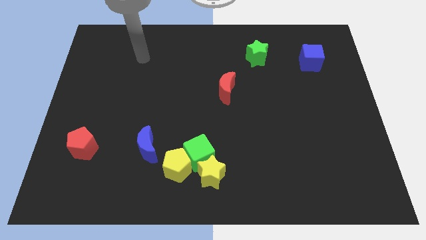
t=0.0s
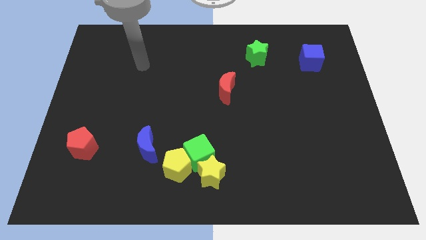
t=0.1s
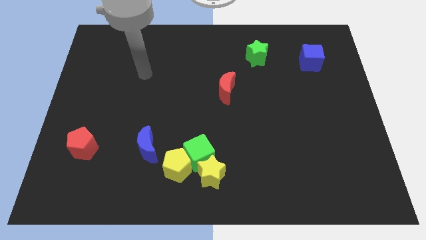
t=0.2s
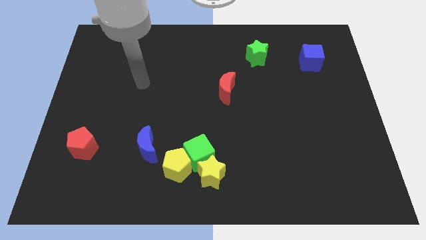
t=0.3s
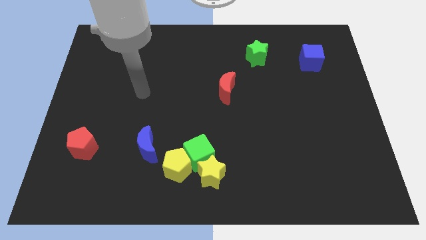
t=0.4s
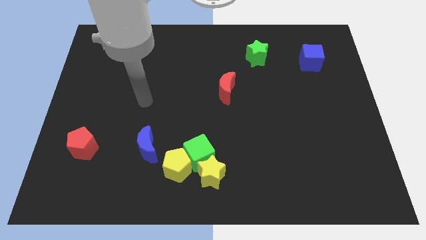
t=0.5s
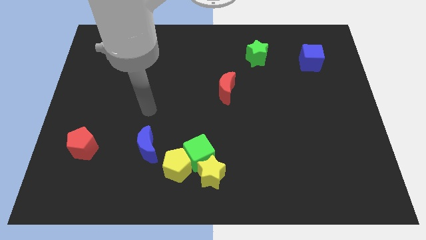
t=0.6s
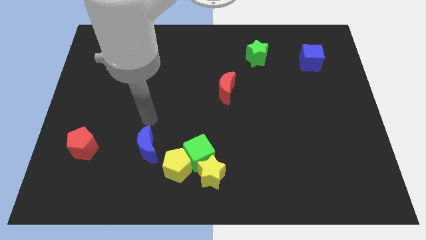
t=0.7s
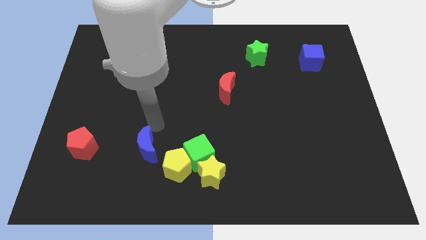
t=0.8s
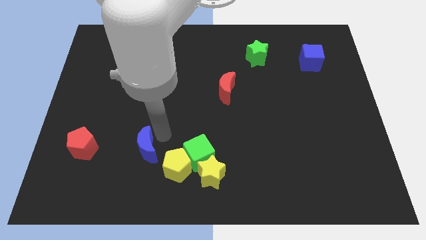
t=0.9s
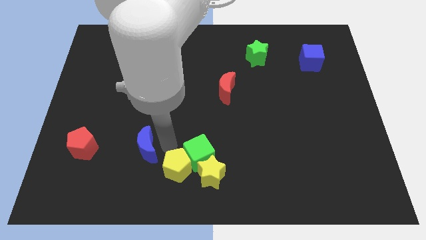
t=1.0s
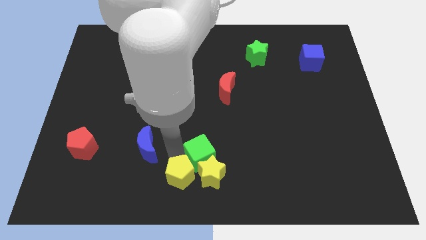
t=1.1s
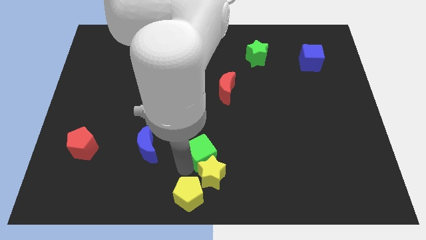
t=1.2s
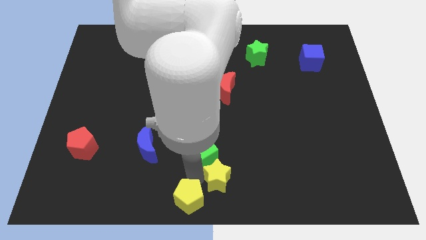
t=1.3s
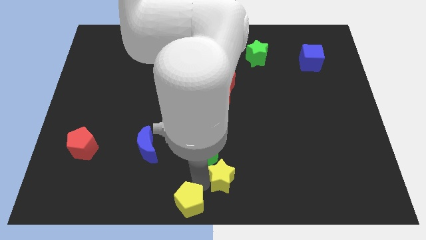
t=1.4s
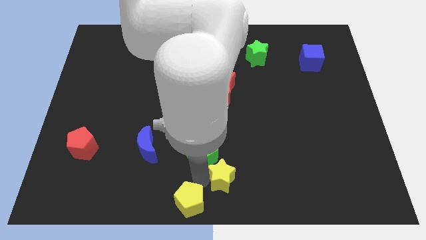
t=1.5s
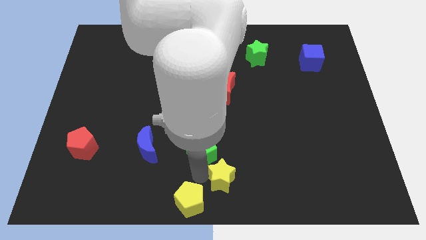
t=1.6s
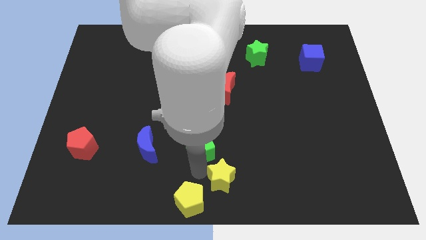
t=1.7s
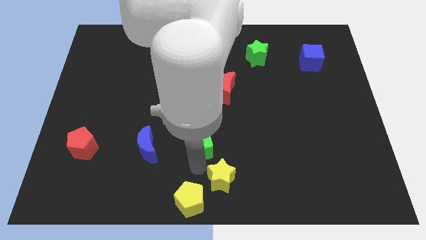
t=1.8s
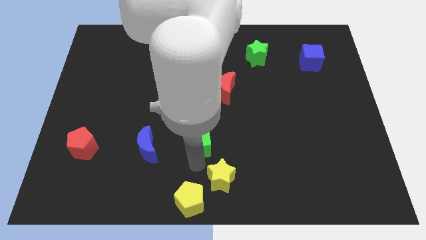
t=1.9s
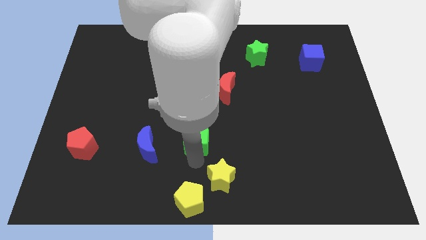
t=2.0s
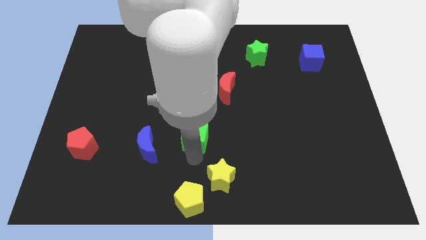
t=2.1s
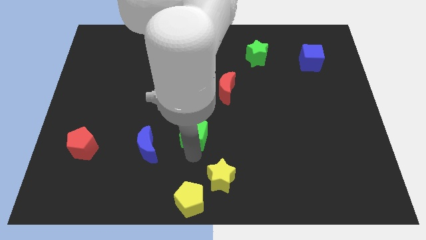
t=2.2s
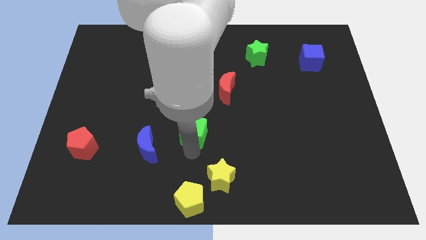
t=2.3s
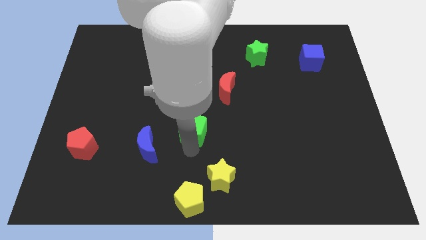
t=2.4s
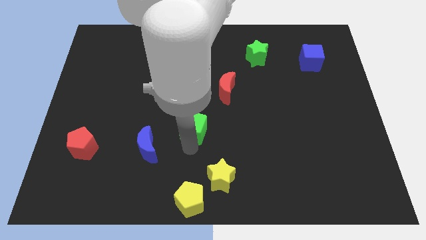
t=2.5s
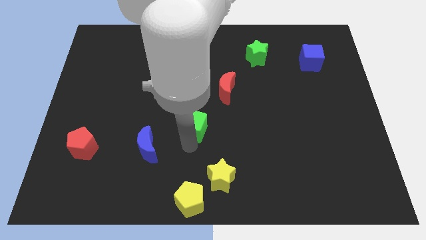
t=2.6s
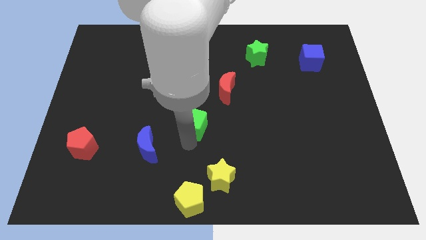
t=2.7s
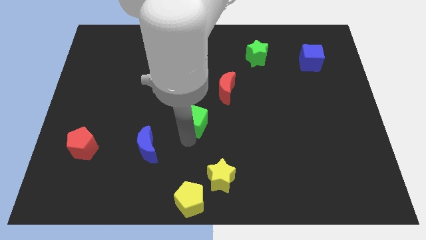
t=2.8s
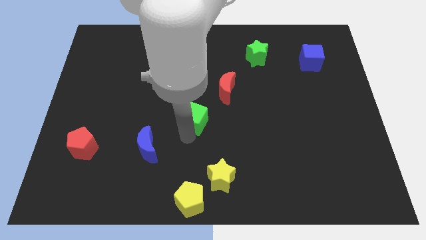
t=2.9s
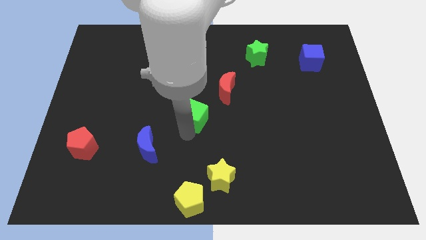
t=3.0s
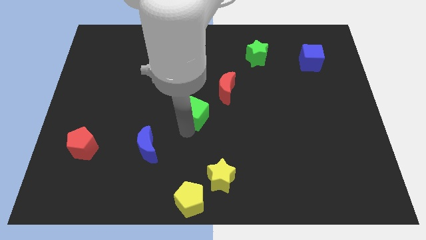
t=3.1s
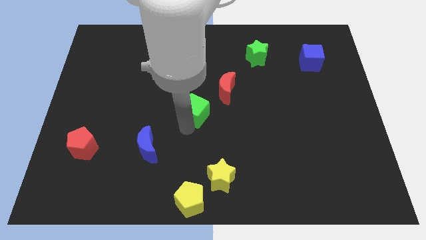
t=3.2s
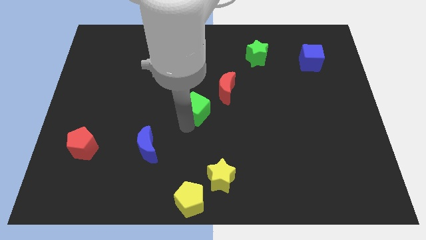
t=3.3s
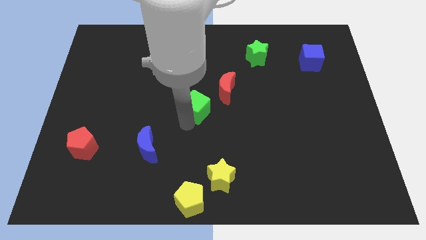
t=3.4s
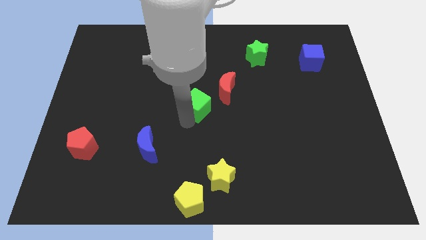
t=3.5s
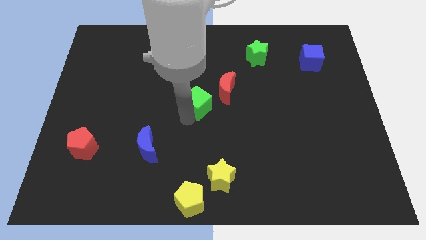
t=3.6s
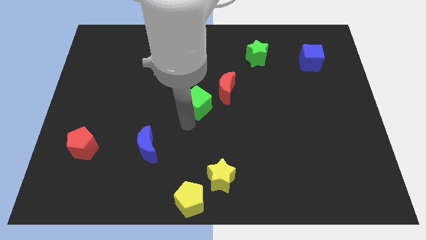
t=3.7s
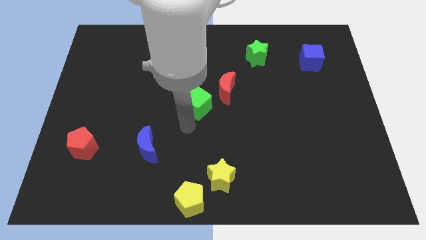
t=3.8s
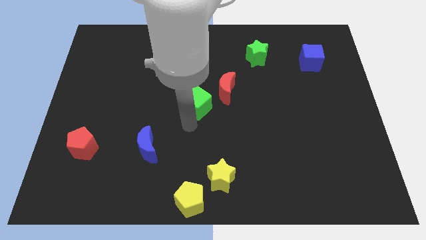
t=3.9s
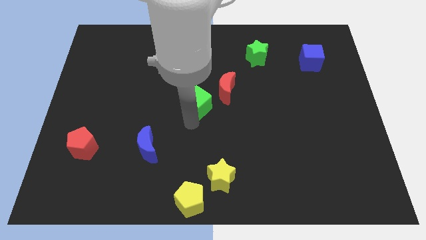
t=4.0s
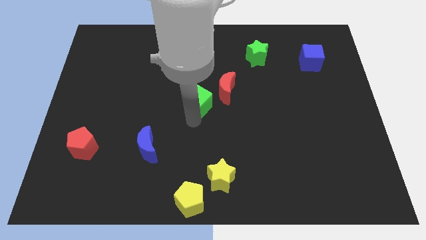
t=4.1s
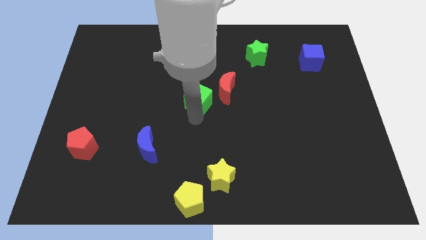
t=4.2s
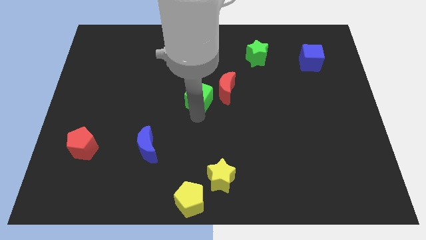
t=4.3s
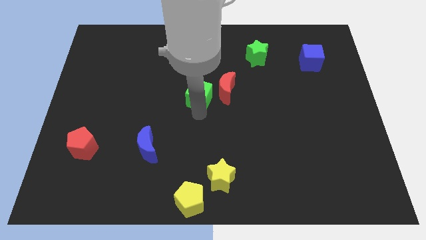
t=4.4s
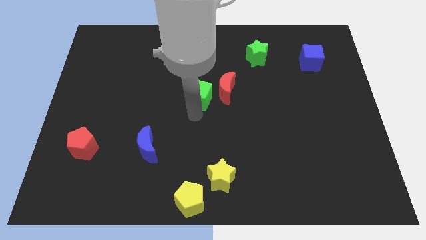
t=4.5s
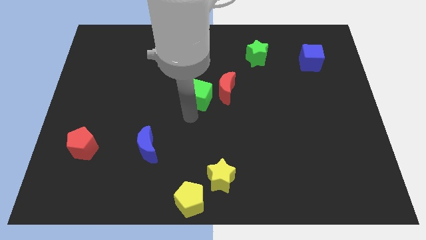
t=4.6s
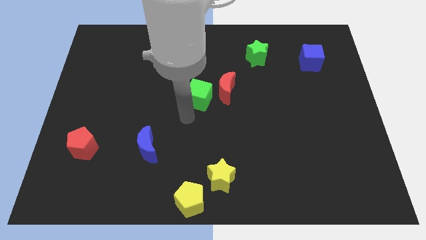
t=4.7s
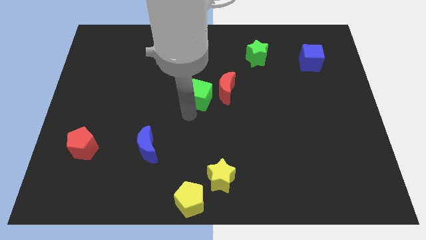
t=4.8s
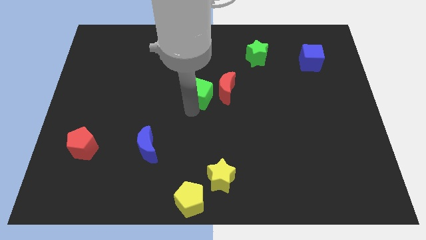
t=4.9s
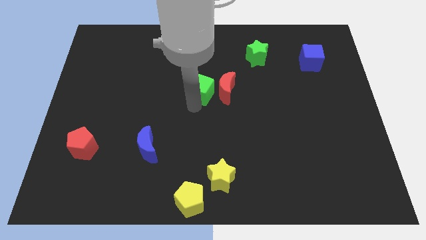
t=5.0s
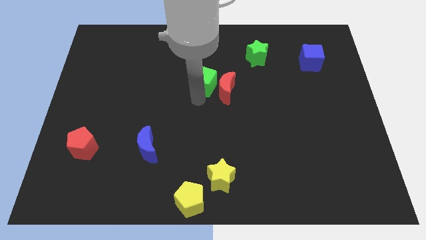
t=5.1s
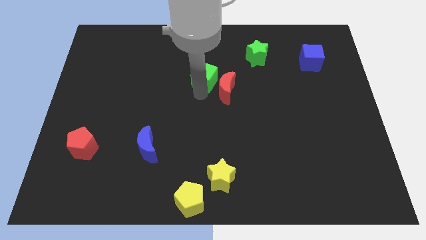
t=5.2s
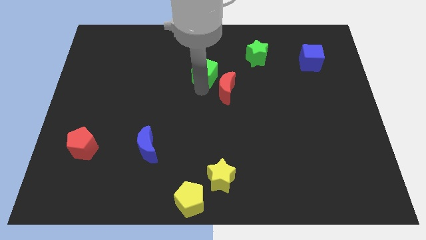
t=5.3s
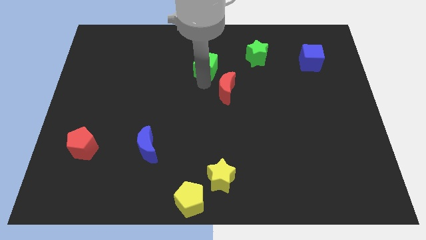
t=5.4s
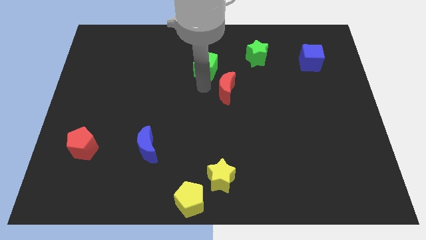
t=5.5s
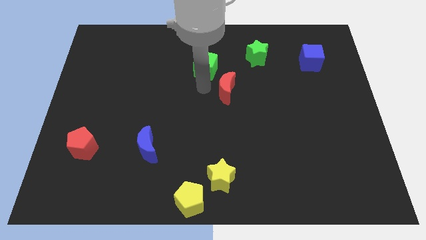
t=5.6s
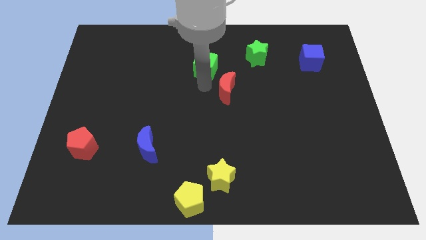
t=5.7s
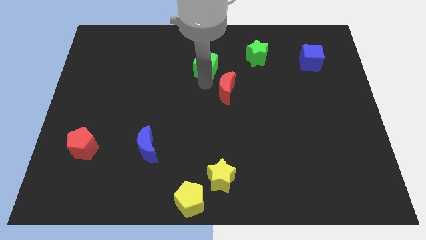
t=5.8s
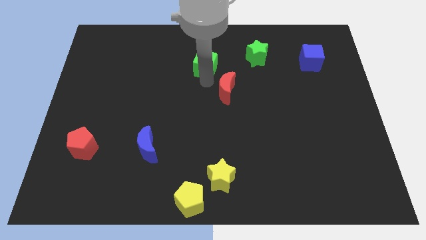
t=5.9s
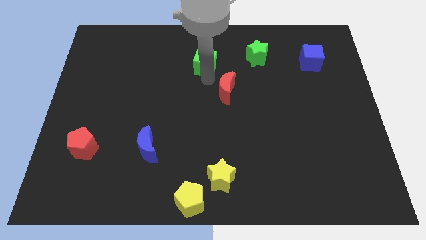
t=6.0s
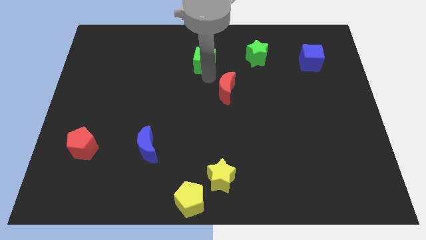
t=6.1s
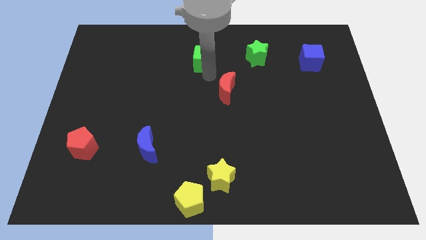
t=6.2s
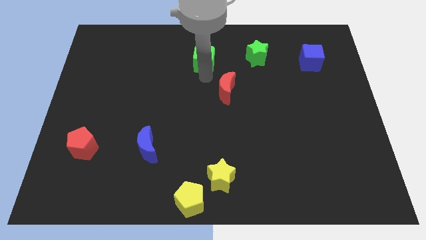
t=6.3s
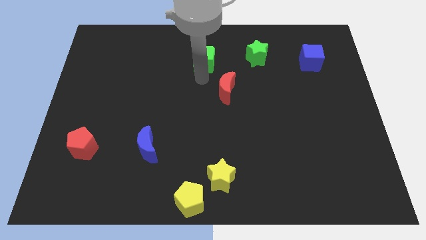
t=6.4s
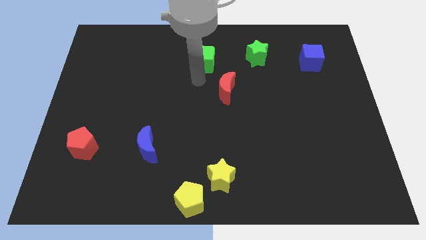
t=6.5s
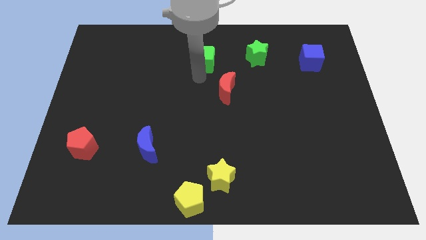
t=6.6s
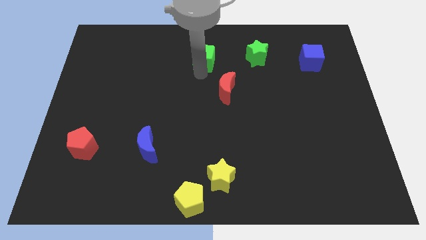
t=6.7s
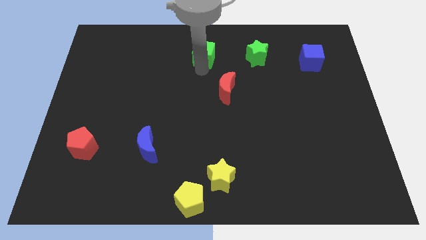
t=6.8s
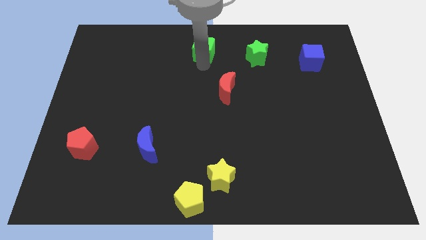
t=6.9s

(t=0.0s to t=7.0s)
slide the green cube to the towards your base
